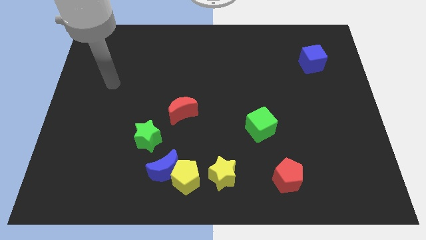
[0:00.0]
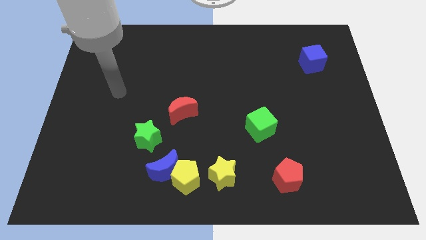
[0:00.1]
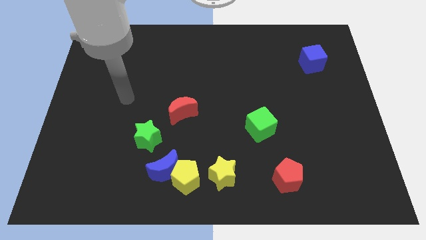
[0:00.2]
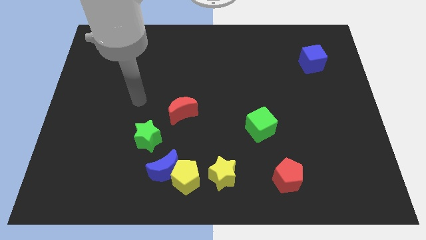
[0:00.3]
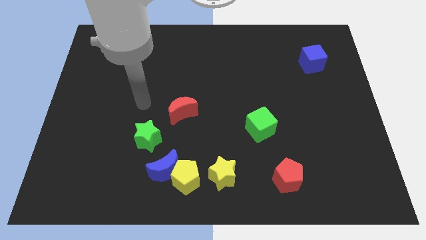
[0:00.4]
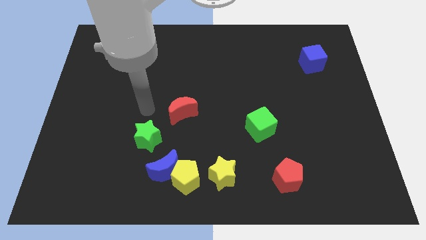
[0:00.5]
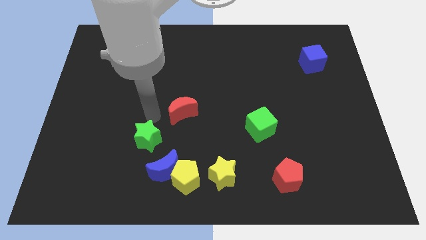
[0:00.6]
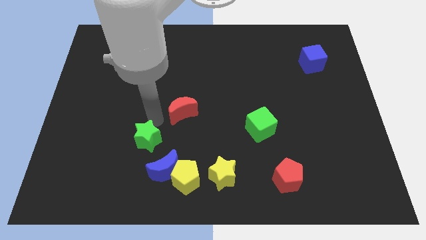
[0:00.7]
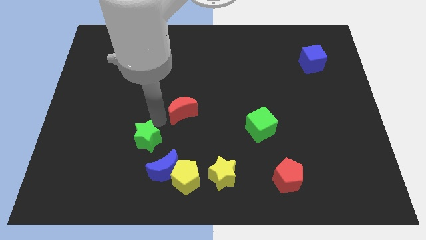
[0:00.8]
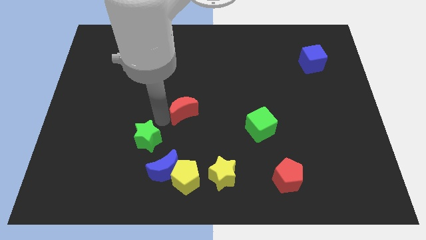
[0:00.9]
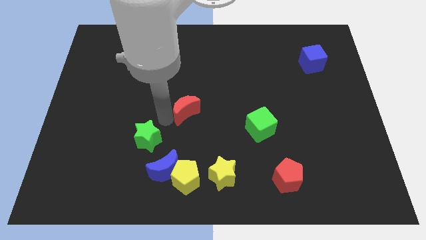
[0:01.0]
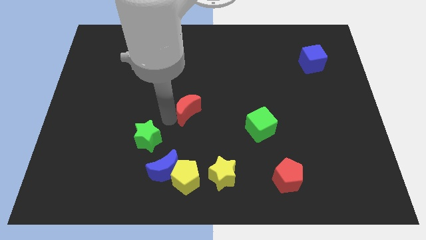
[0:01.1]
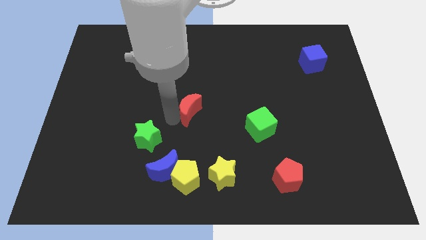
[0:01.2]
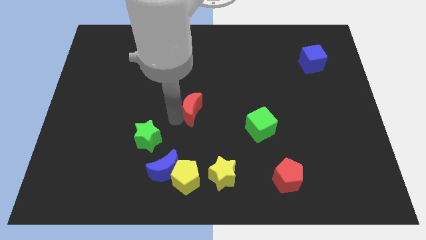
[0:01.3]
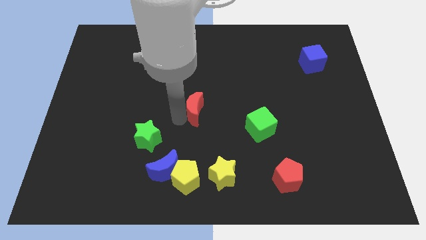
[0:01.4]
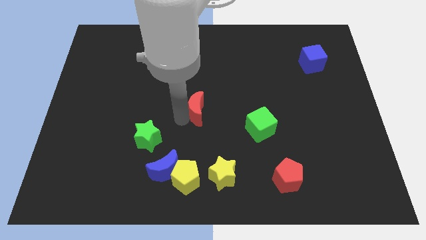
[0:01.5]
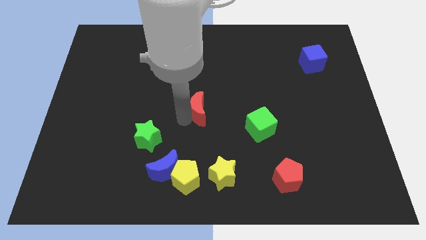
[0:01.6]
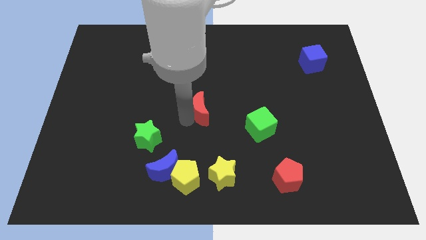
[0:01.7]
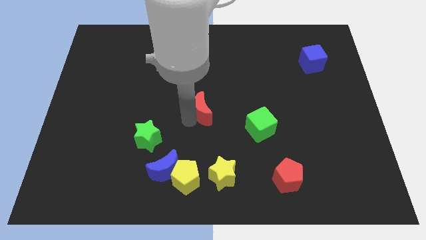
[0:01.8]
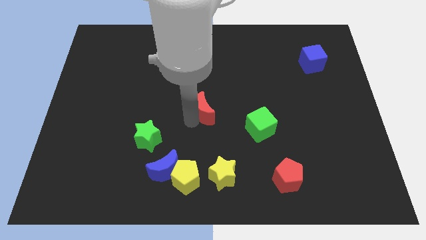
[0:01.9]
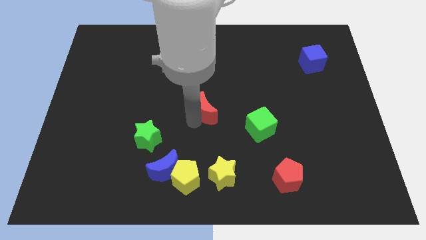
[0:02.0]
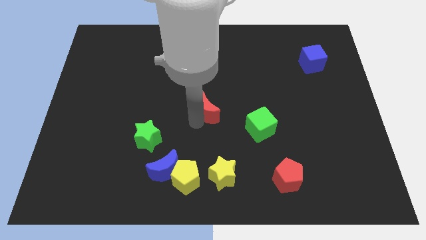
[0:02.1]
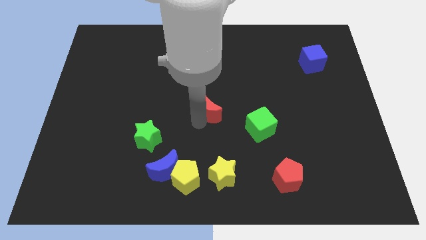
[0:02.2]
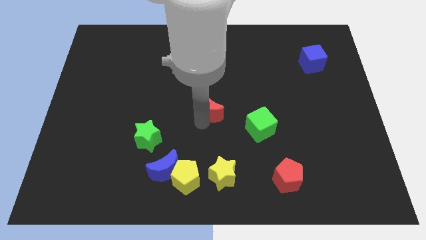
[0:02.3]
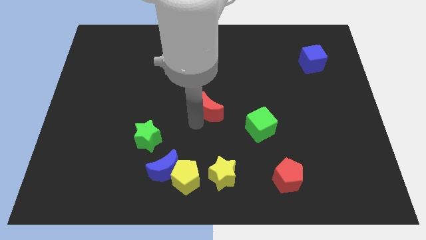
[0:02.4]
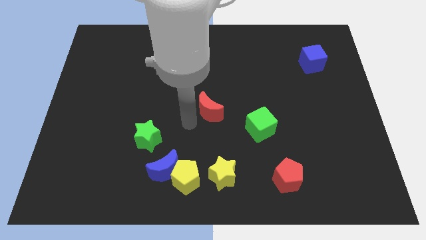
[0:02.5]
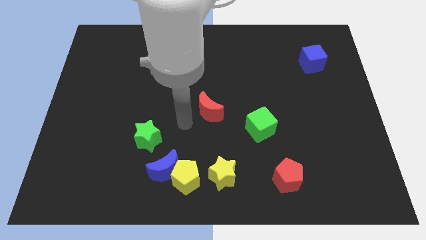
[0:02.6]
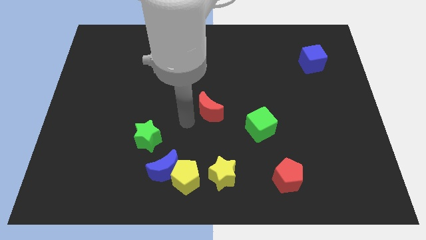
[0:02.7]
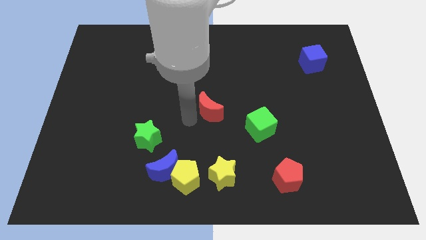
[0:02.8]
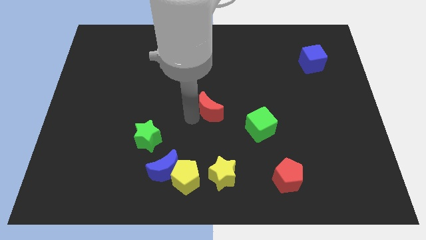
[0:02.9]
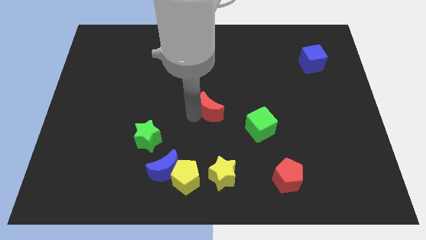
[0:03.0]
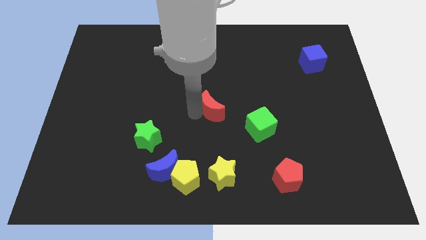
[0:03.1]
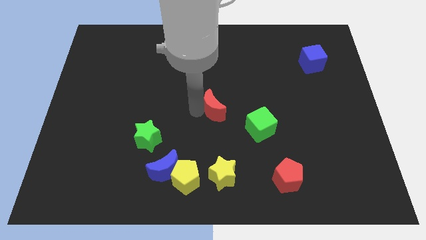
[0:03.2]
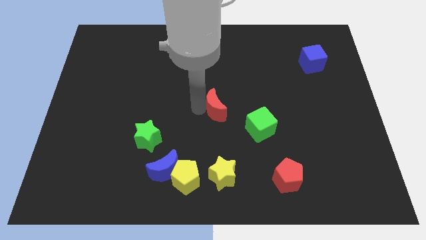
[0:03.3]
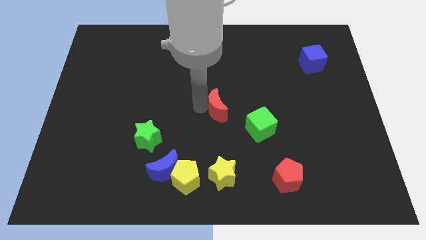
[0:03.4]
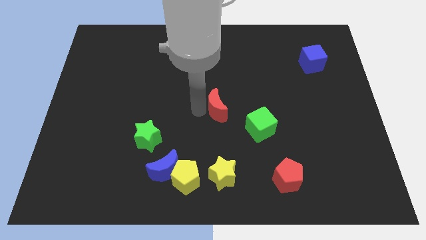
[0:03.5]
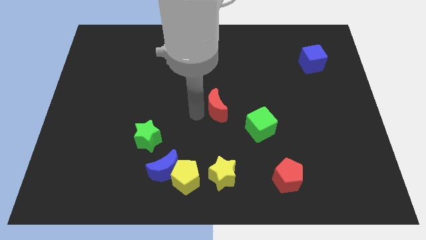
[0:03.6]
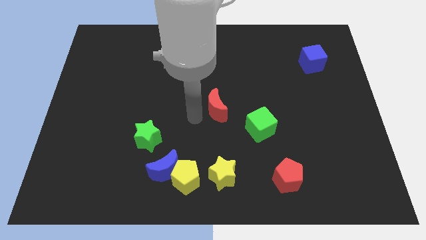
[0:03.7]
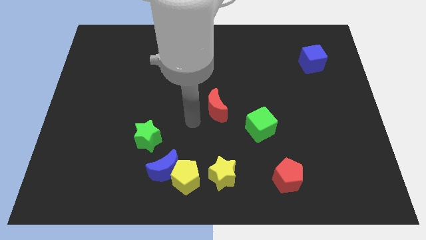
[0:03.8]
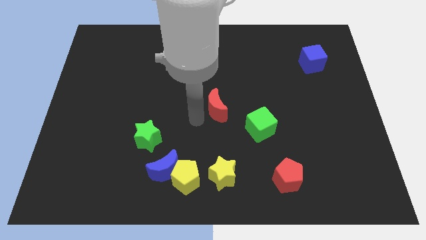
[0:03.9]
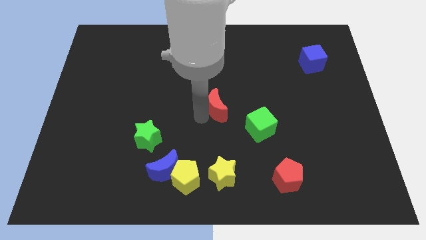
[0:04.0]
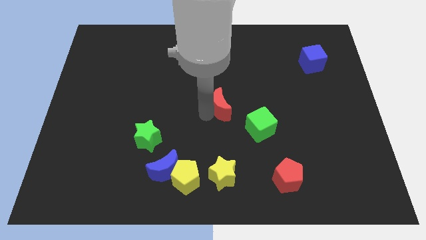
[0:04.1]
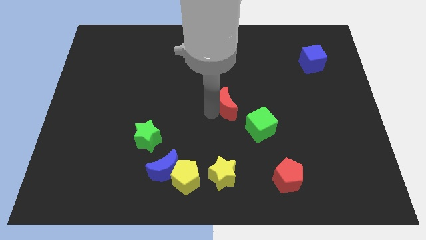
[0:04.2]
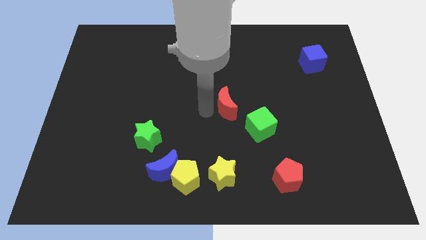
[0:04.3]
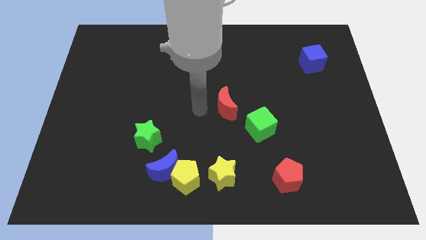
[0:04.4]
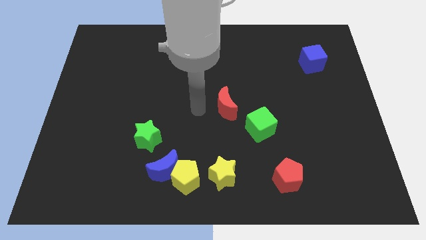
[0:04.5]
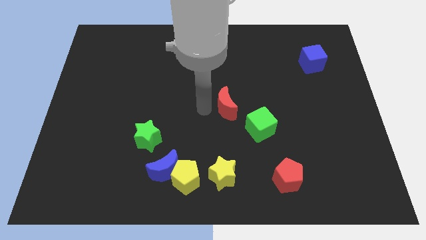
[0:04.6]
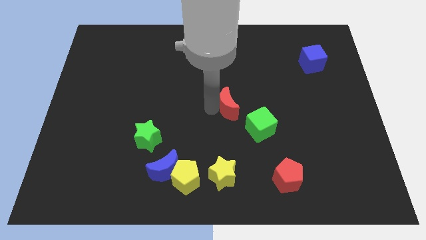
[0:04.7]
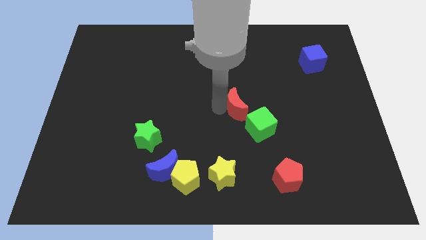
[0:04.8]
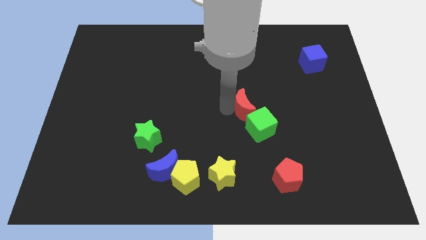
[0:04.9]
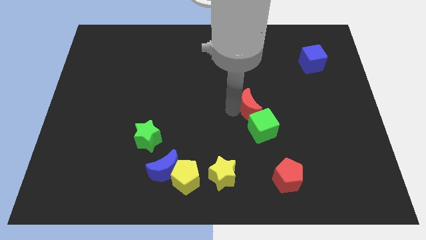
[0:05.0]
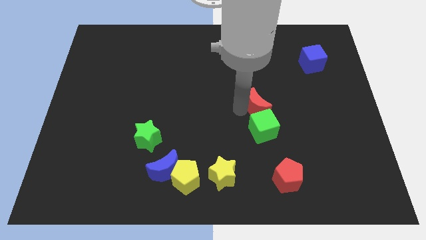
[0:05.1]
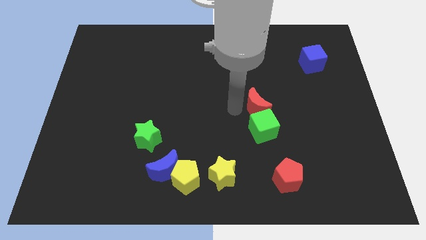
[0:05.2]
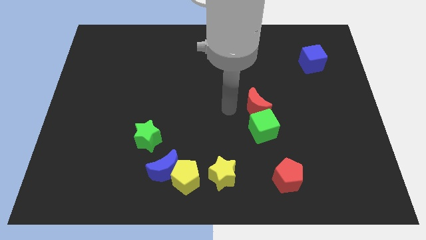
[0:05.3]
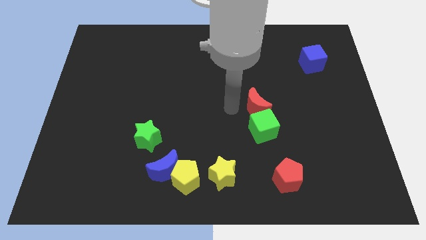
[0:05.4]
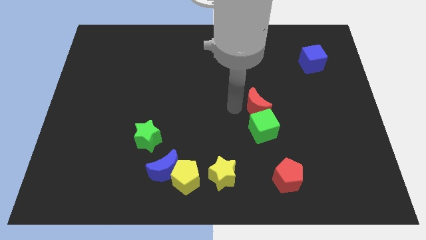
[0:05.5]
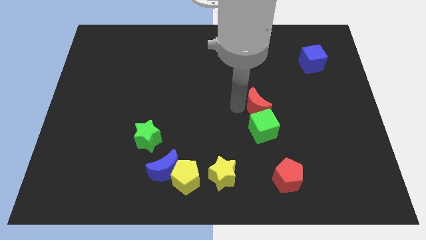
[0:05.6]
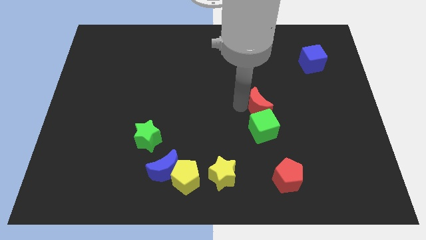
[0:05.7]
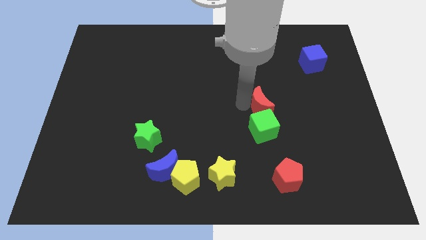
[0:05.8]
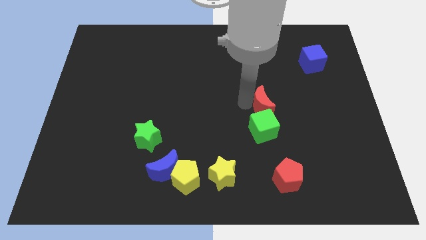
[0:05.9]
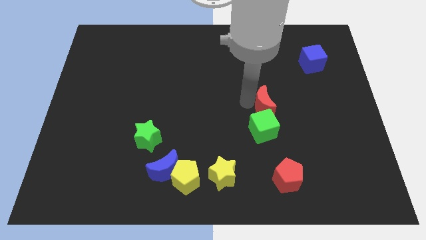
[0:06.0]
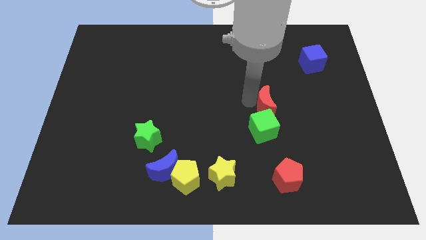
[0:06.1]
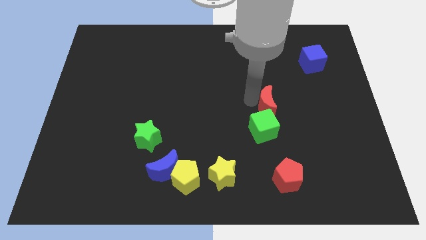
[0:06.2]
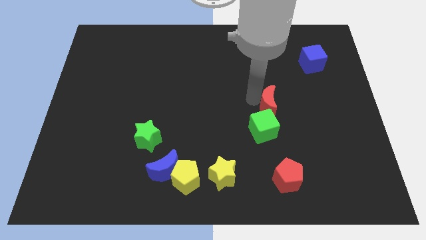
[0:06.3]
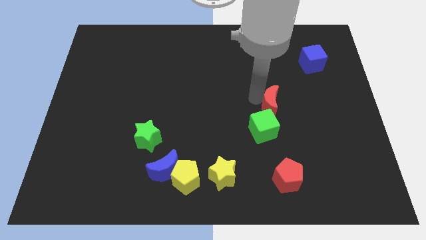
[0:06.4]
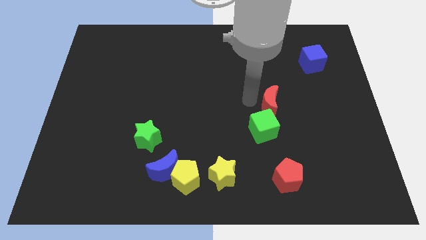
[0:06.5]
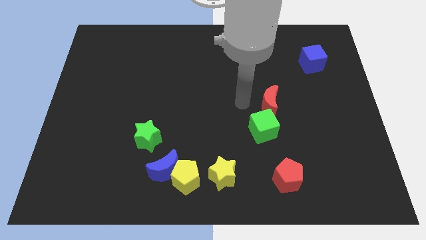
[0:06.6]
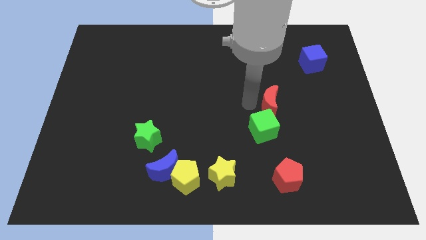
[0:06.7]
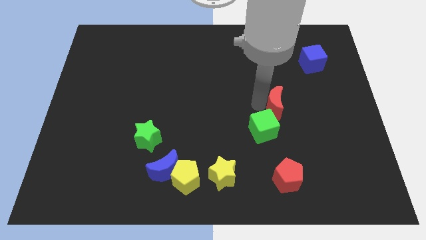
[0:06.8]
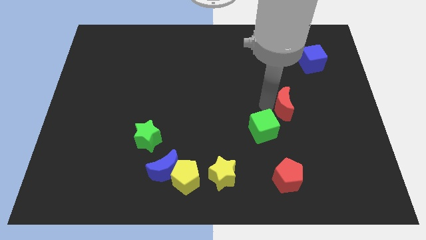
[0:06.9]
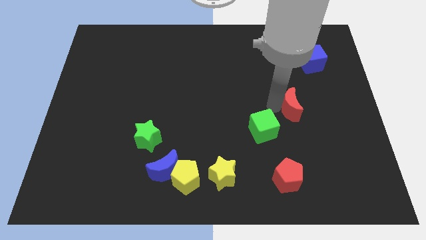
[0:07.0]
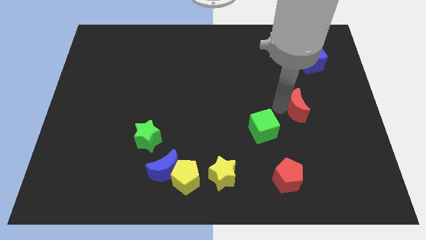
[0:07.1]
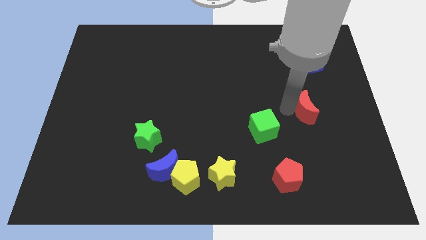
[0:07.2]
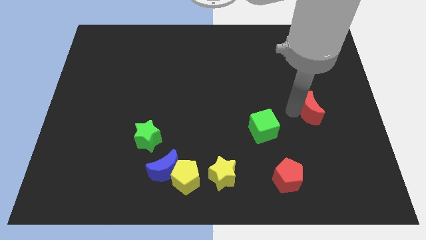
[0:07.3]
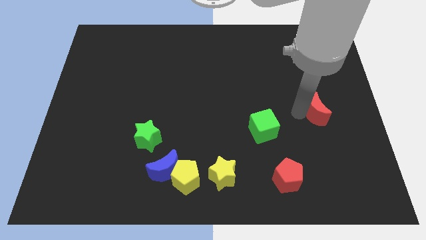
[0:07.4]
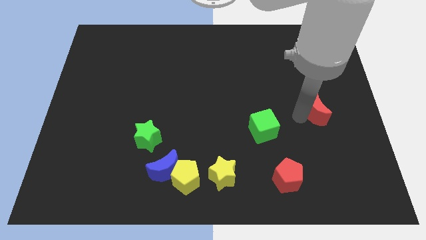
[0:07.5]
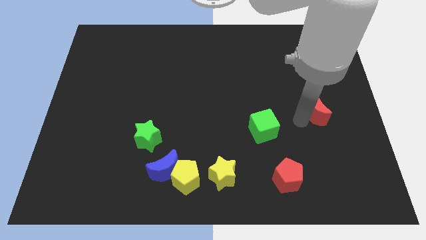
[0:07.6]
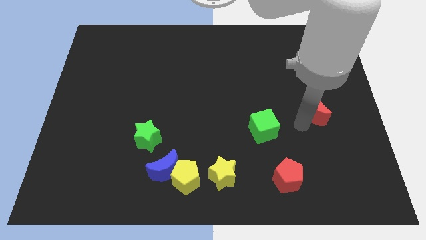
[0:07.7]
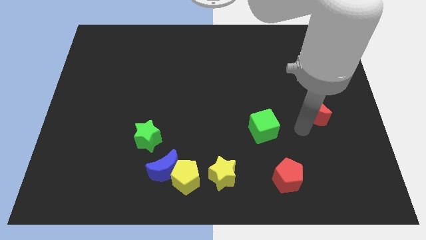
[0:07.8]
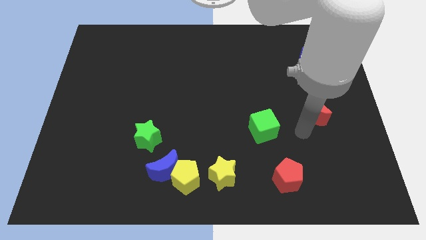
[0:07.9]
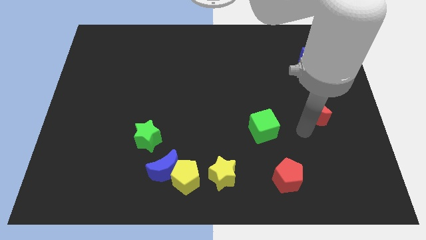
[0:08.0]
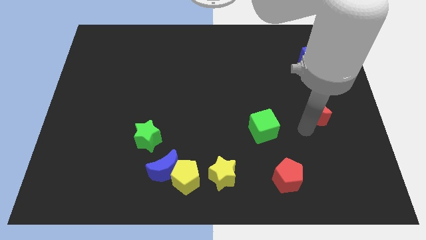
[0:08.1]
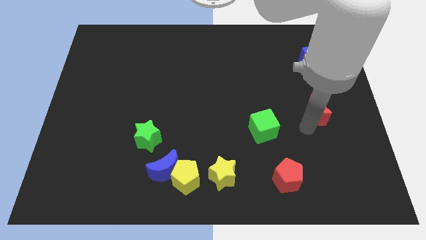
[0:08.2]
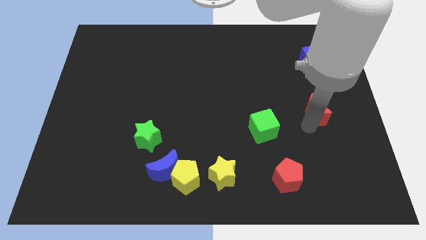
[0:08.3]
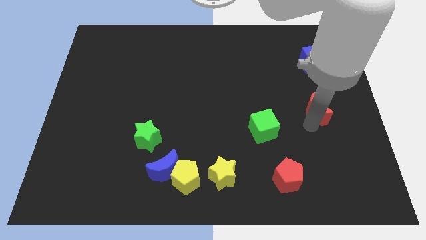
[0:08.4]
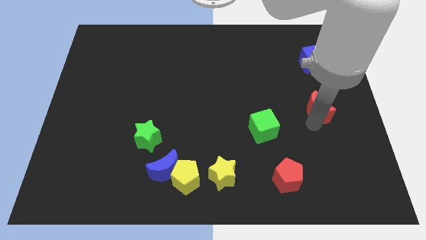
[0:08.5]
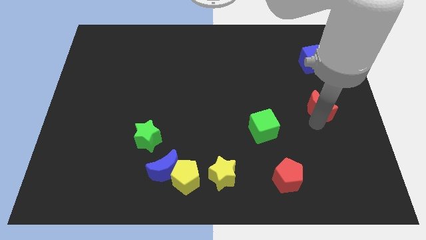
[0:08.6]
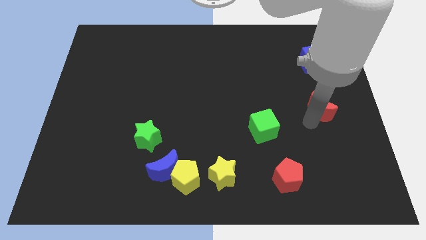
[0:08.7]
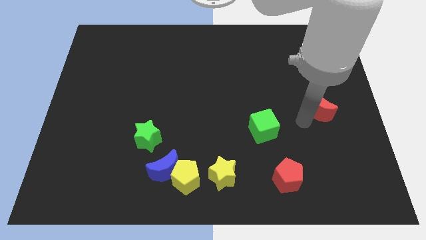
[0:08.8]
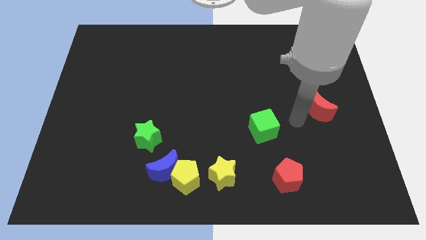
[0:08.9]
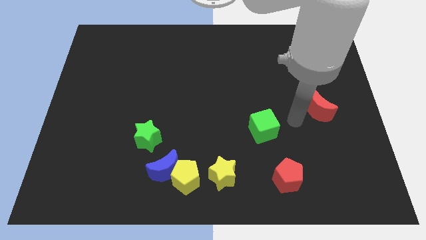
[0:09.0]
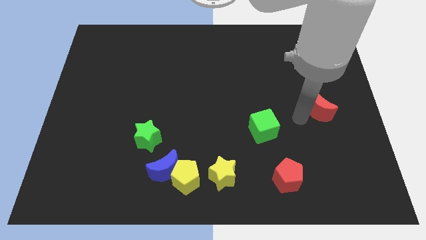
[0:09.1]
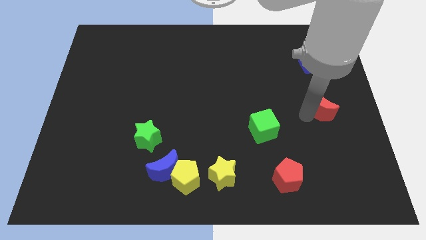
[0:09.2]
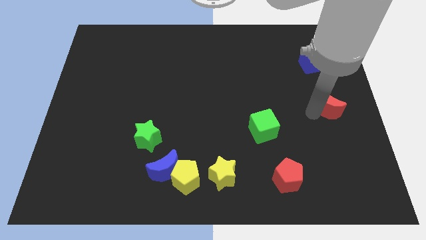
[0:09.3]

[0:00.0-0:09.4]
move the red moon to the right side
